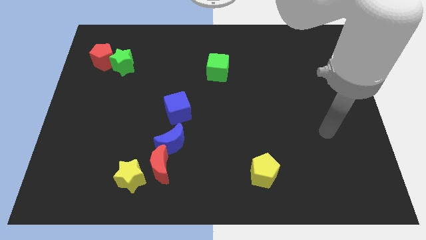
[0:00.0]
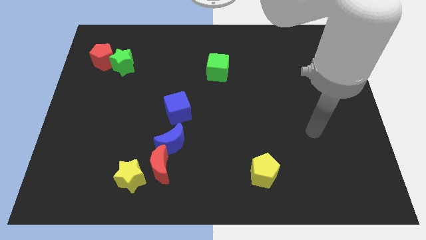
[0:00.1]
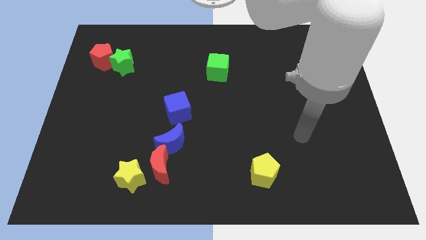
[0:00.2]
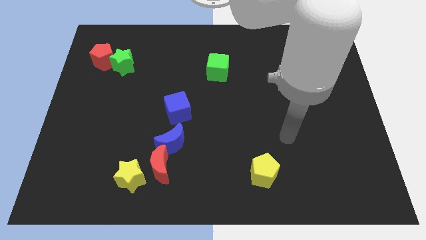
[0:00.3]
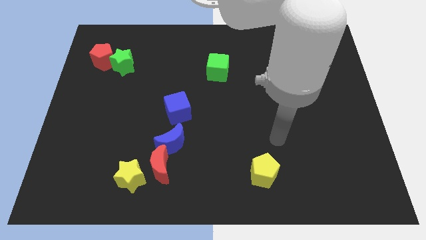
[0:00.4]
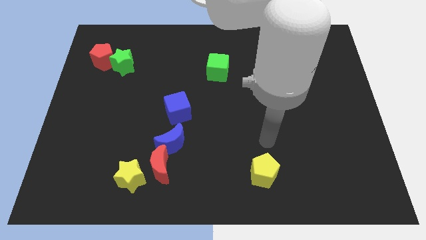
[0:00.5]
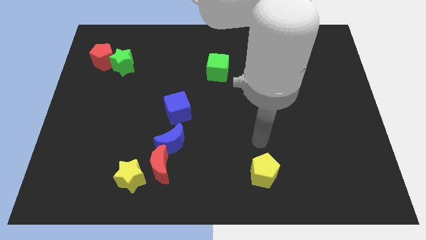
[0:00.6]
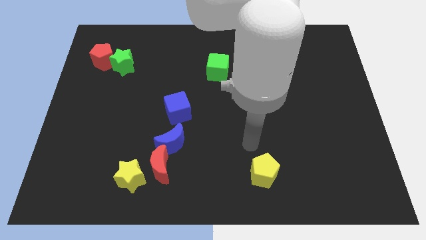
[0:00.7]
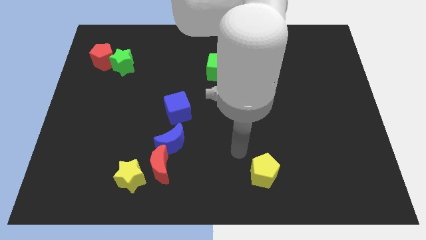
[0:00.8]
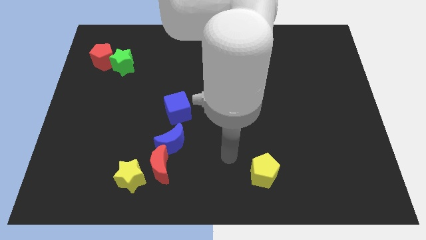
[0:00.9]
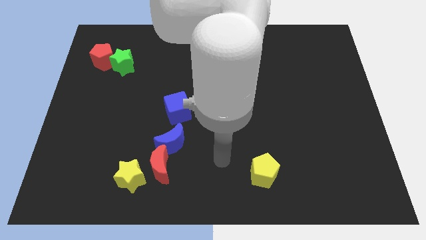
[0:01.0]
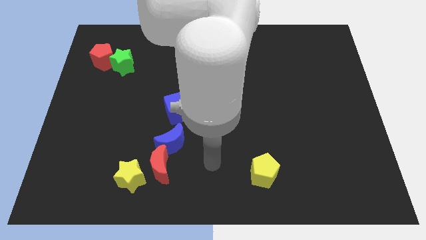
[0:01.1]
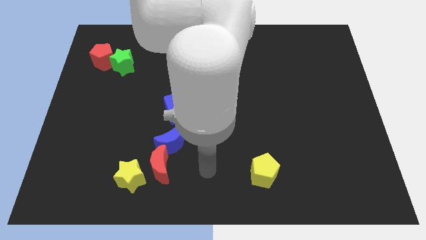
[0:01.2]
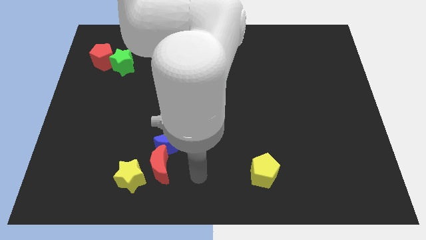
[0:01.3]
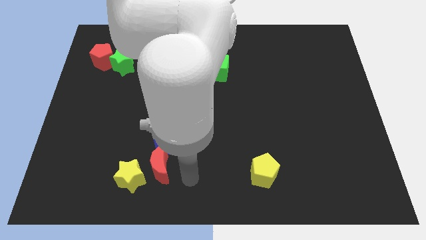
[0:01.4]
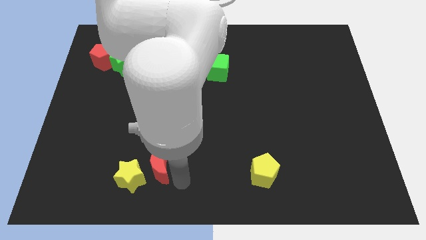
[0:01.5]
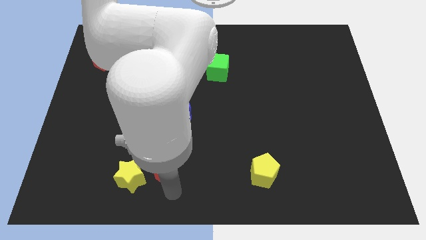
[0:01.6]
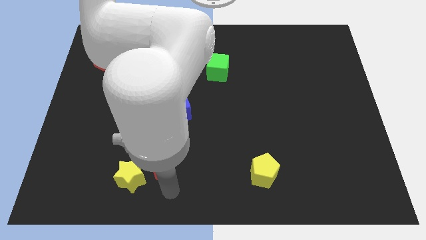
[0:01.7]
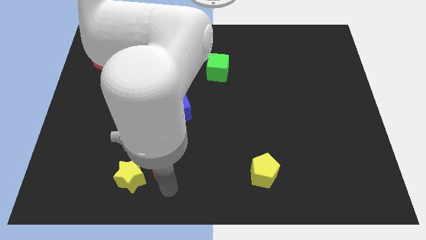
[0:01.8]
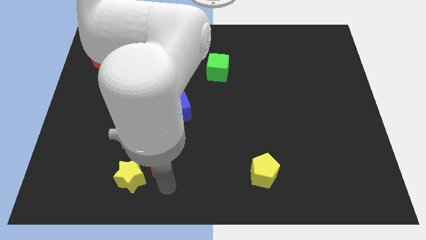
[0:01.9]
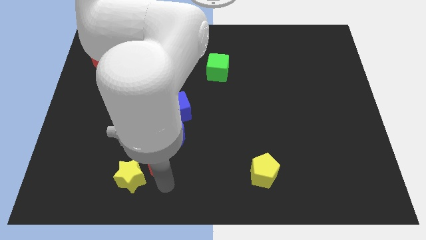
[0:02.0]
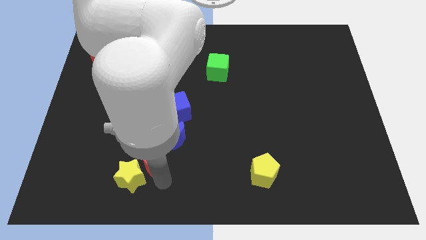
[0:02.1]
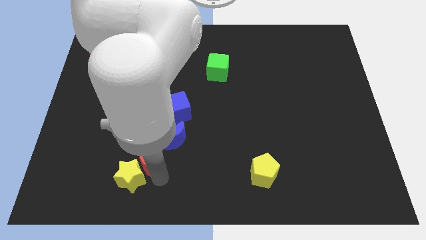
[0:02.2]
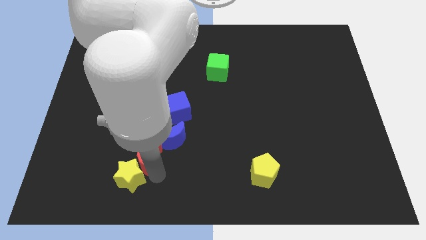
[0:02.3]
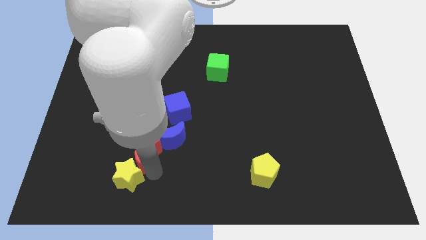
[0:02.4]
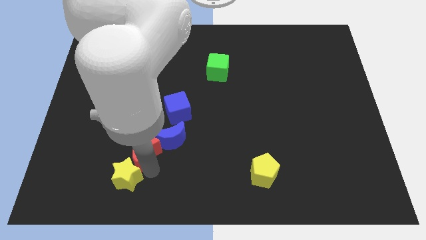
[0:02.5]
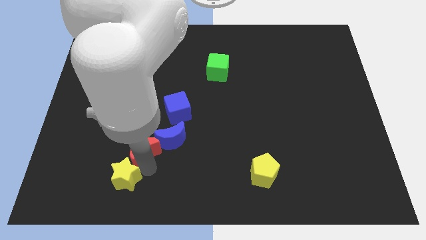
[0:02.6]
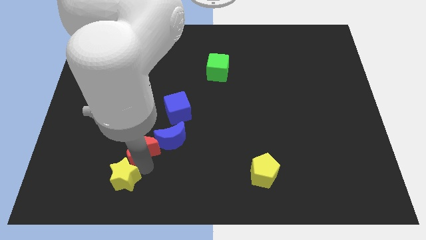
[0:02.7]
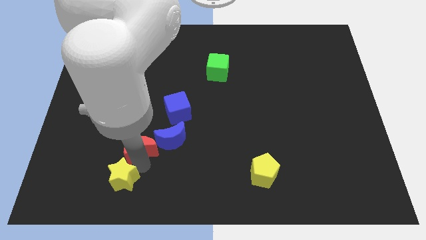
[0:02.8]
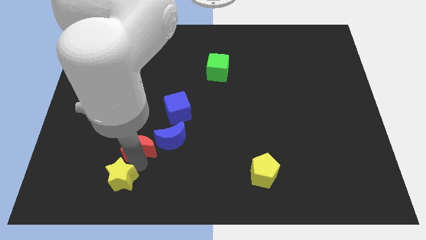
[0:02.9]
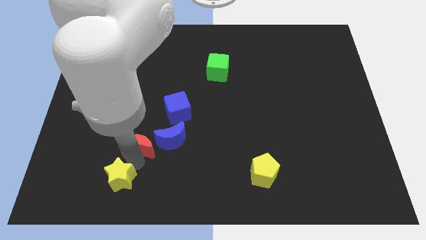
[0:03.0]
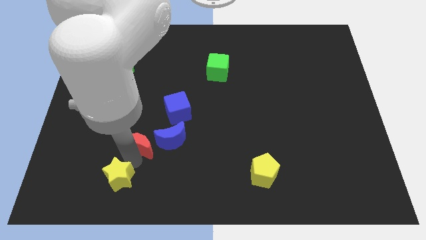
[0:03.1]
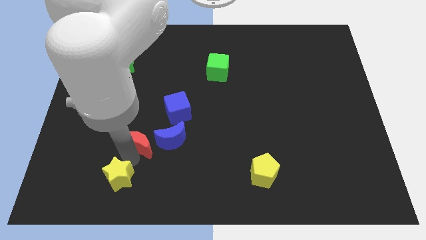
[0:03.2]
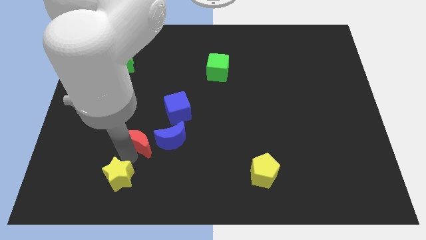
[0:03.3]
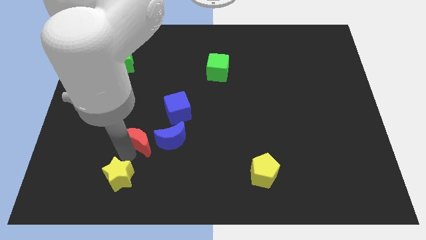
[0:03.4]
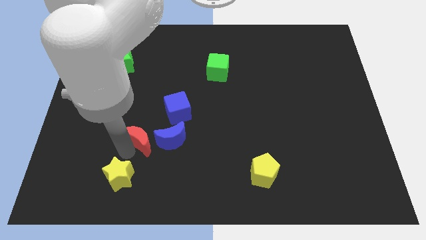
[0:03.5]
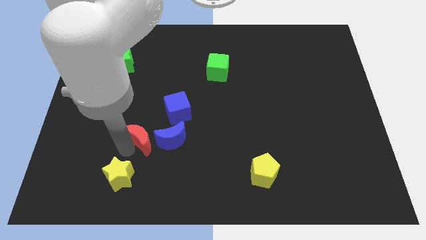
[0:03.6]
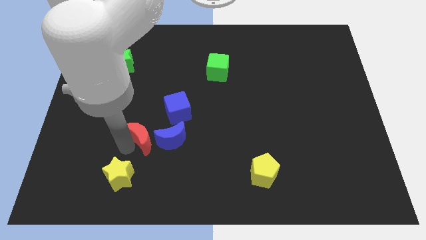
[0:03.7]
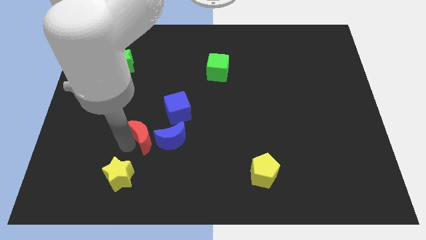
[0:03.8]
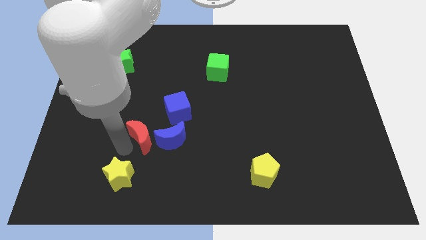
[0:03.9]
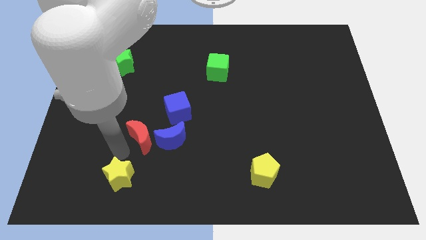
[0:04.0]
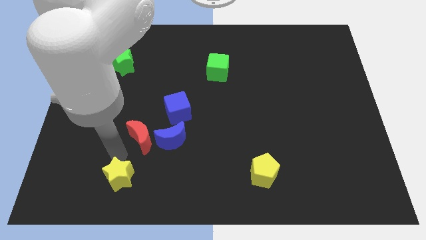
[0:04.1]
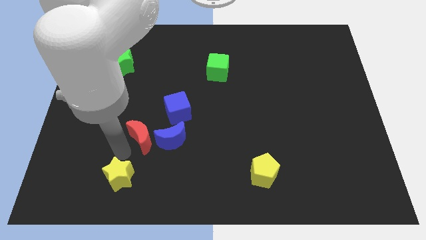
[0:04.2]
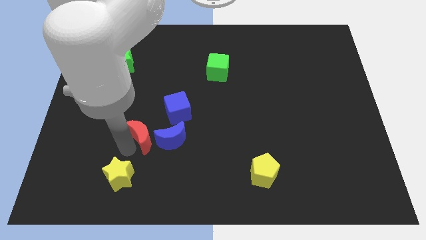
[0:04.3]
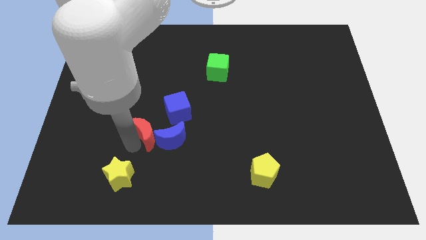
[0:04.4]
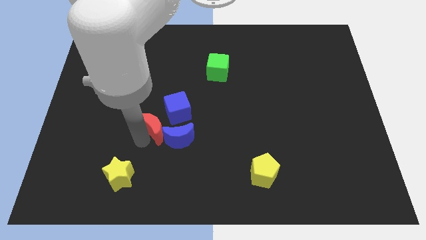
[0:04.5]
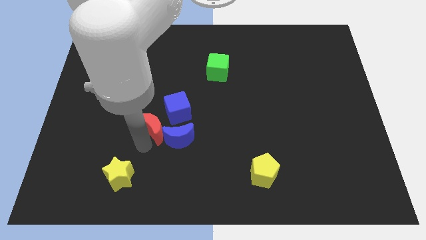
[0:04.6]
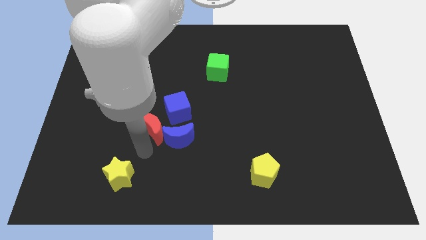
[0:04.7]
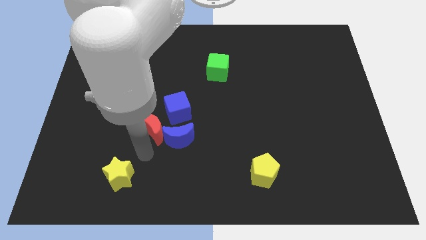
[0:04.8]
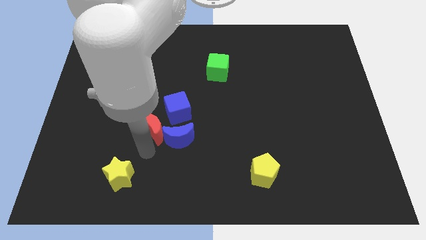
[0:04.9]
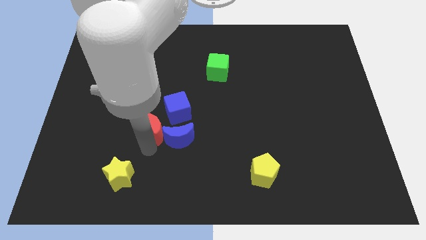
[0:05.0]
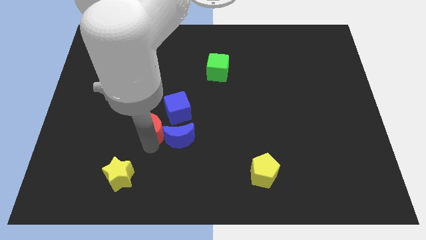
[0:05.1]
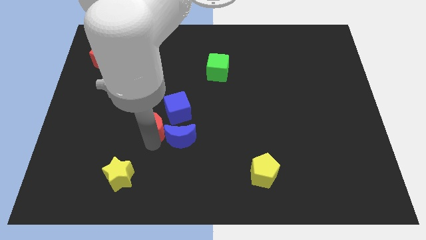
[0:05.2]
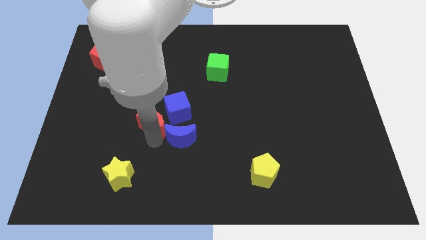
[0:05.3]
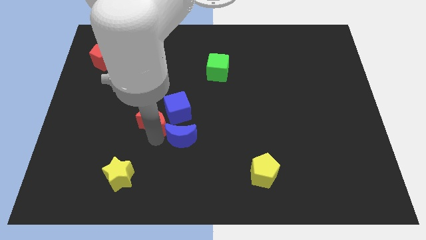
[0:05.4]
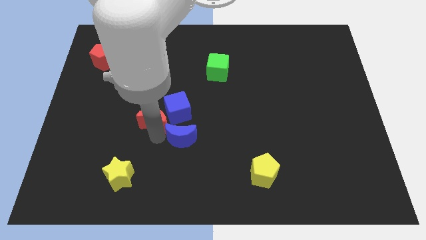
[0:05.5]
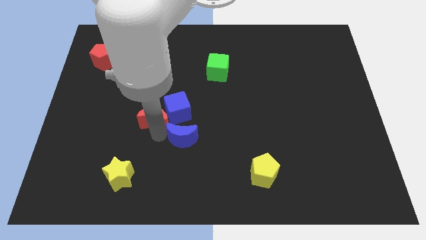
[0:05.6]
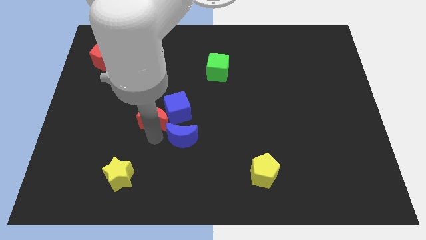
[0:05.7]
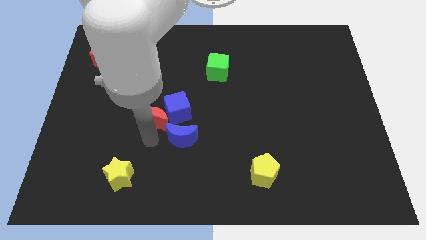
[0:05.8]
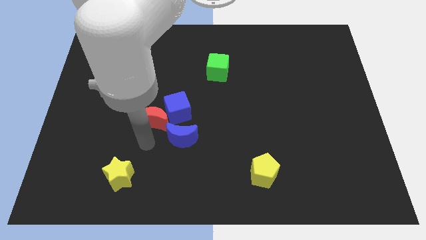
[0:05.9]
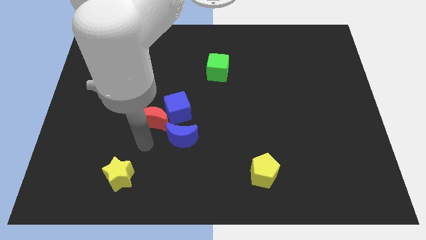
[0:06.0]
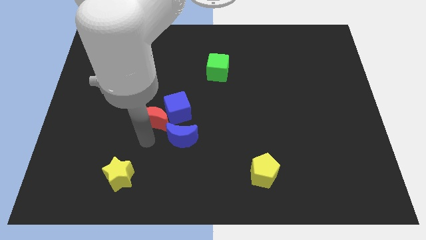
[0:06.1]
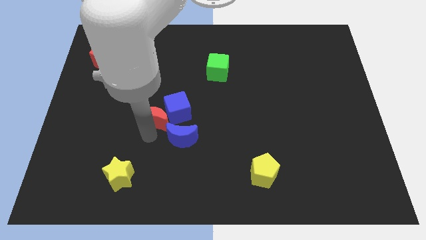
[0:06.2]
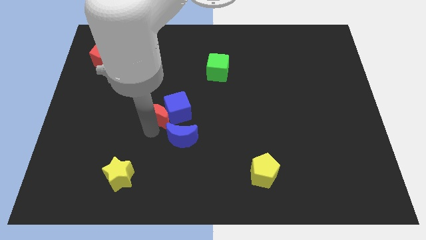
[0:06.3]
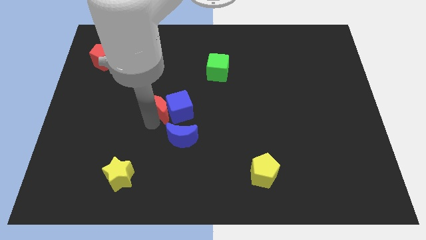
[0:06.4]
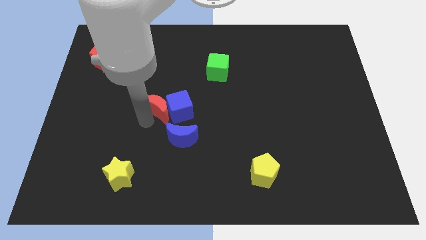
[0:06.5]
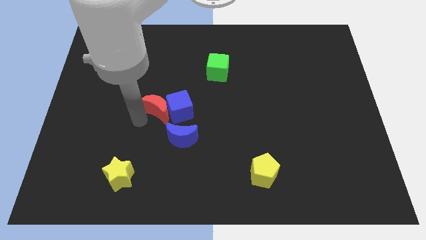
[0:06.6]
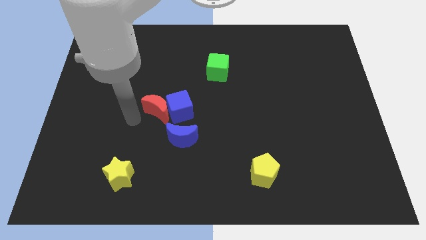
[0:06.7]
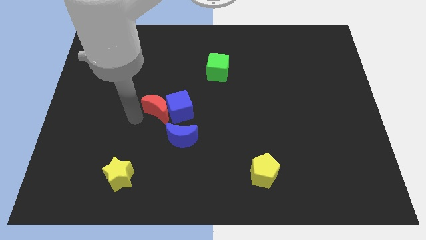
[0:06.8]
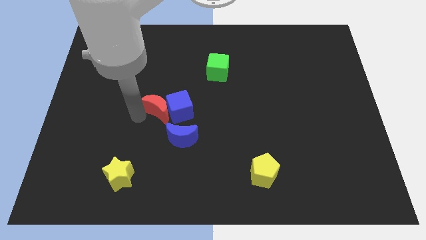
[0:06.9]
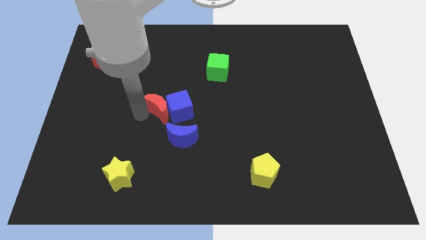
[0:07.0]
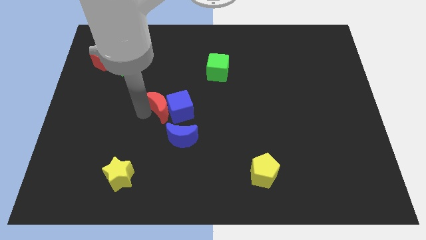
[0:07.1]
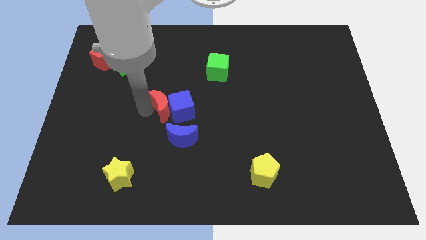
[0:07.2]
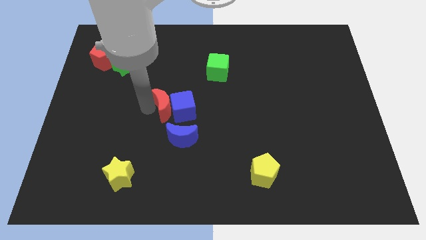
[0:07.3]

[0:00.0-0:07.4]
move the red moon to the top of the blue moon
